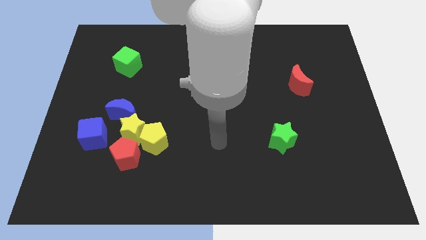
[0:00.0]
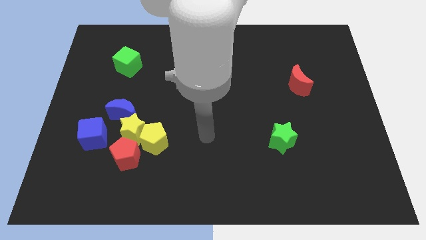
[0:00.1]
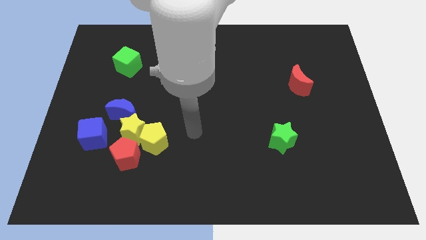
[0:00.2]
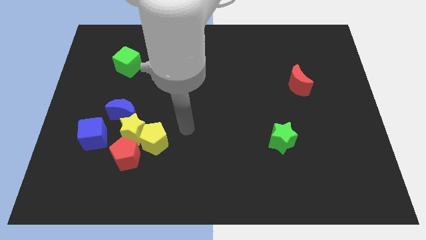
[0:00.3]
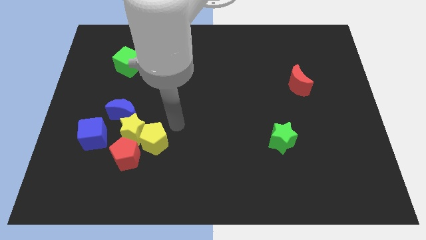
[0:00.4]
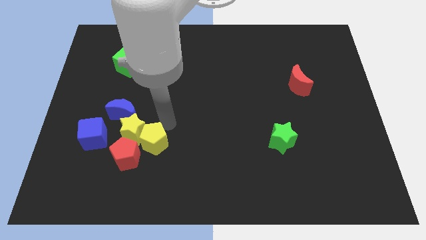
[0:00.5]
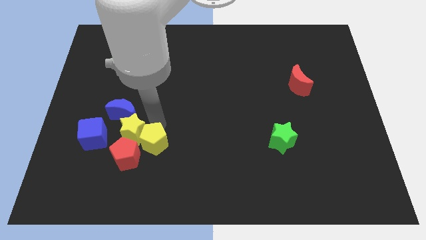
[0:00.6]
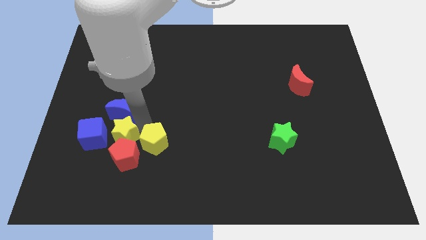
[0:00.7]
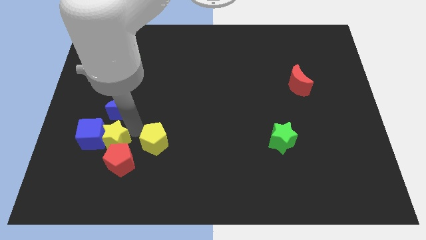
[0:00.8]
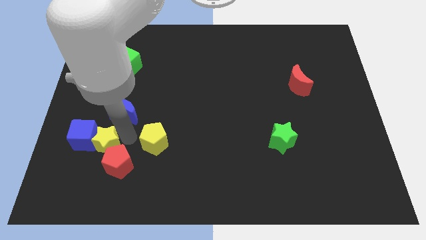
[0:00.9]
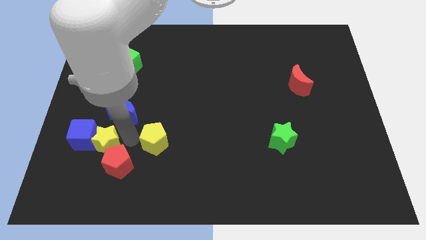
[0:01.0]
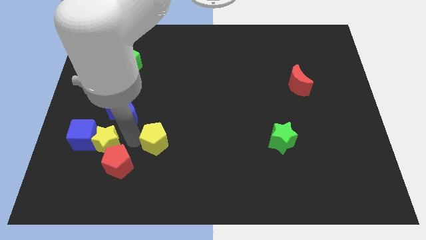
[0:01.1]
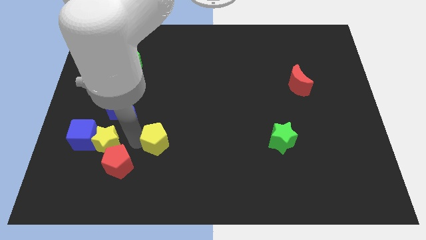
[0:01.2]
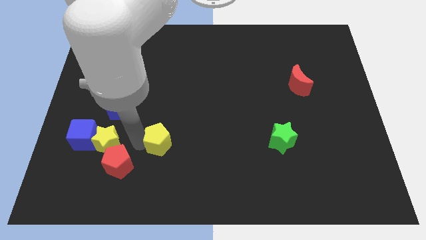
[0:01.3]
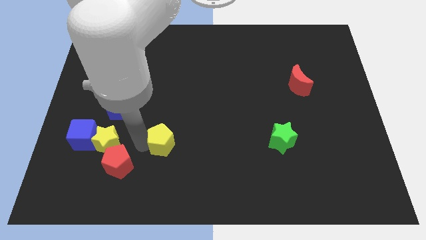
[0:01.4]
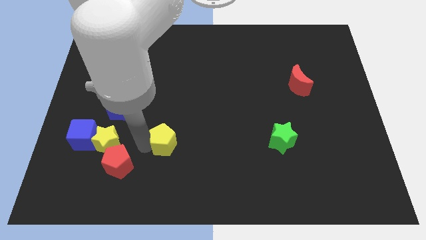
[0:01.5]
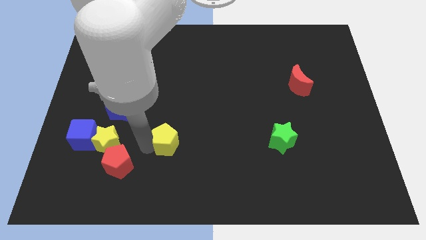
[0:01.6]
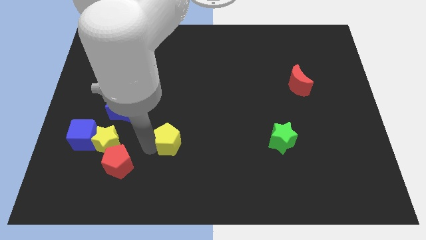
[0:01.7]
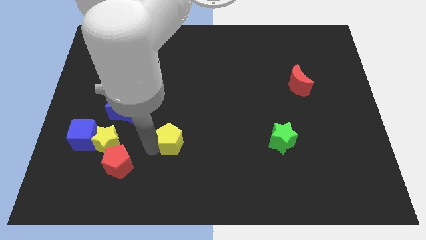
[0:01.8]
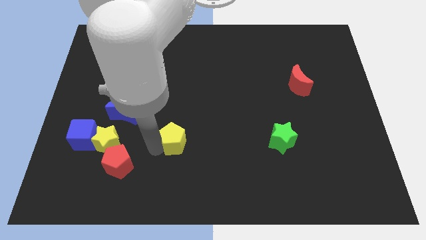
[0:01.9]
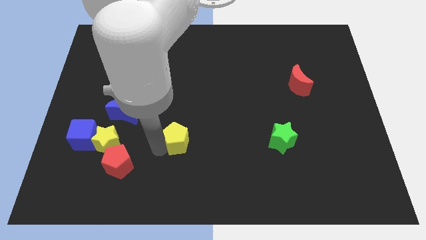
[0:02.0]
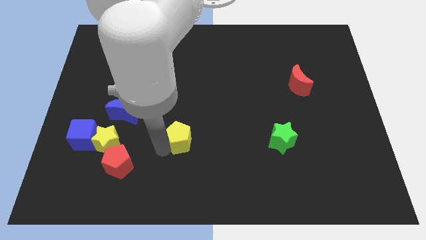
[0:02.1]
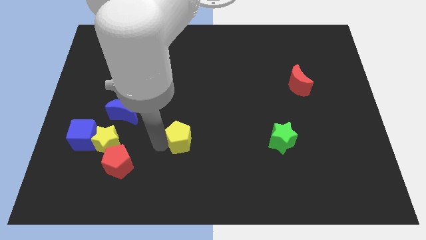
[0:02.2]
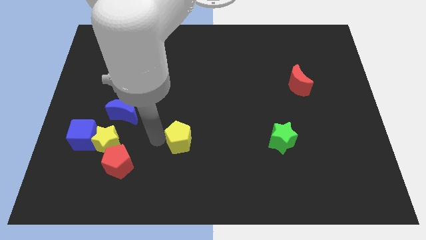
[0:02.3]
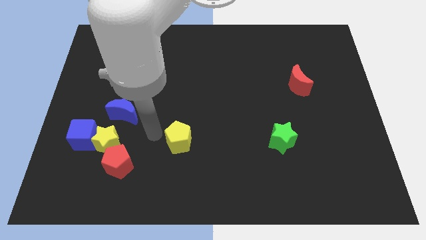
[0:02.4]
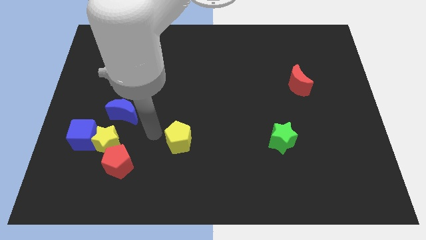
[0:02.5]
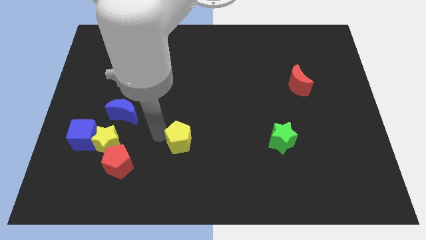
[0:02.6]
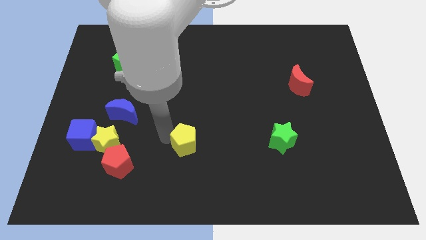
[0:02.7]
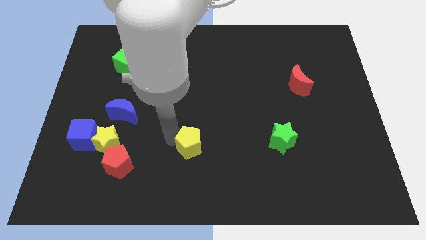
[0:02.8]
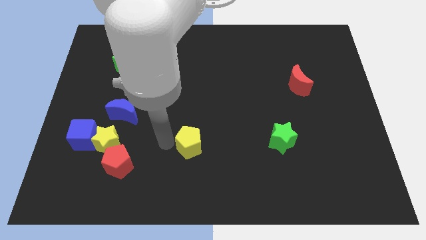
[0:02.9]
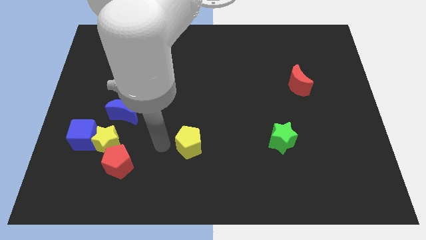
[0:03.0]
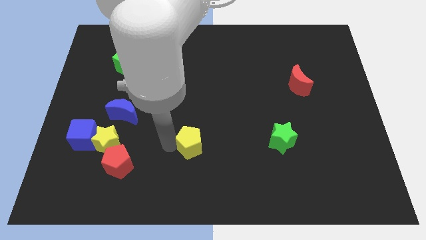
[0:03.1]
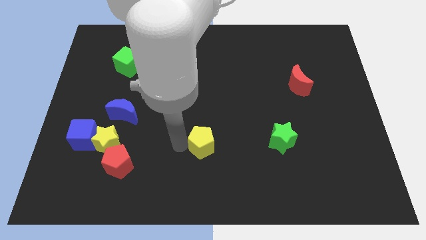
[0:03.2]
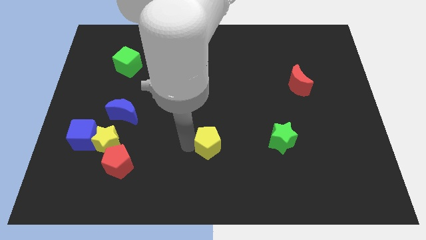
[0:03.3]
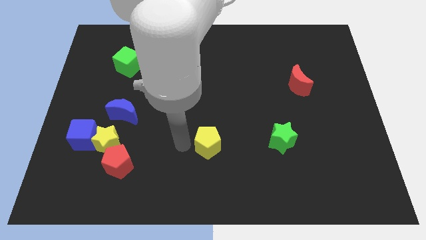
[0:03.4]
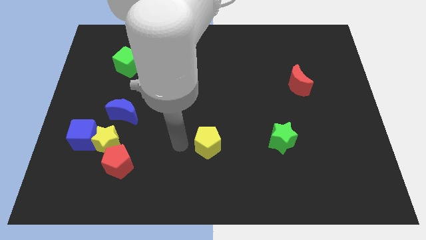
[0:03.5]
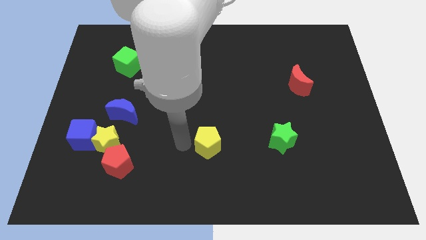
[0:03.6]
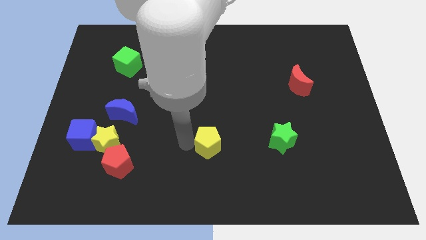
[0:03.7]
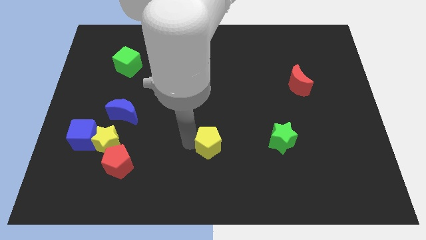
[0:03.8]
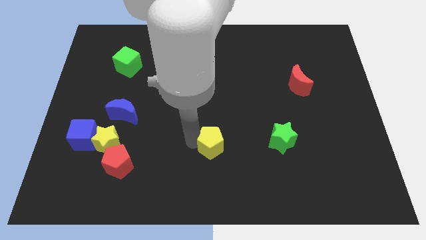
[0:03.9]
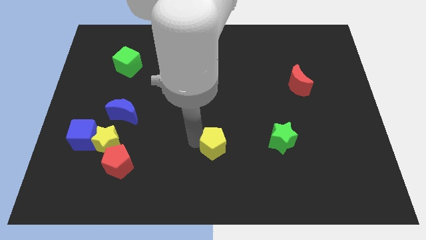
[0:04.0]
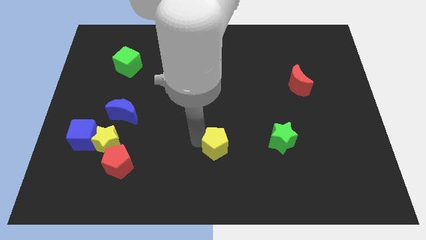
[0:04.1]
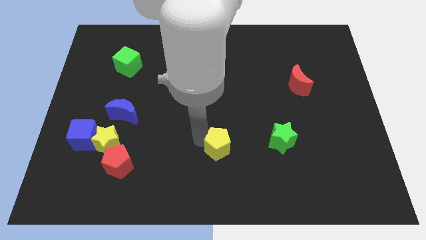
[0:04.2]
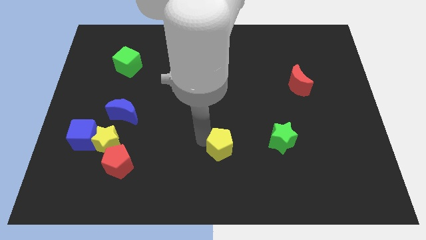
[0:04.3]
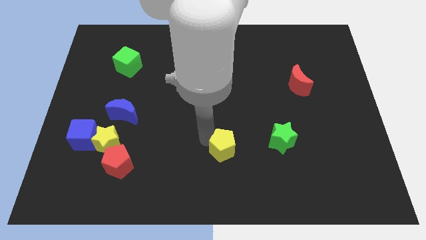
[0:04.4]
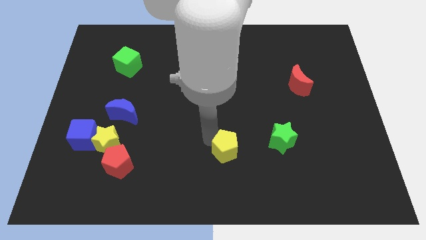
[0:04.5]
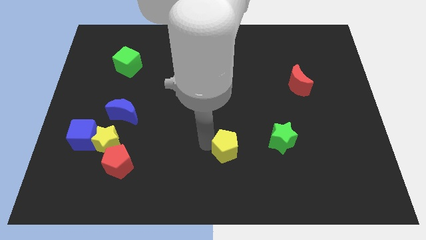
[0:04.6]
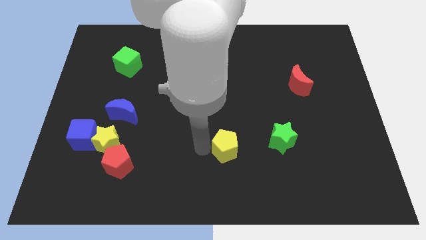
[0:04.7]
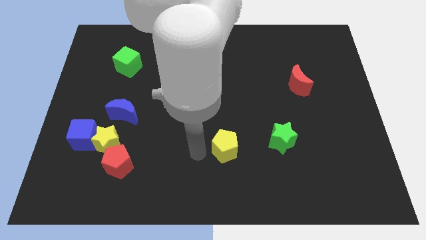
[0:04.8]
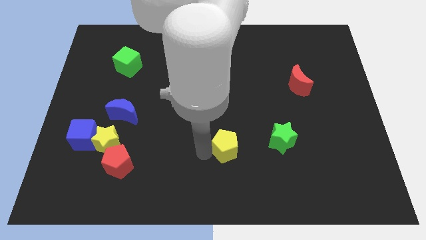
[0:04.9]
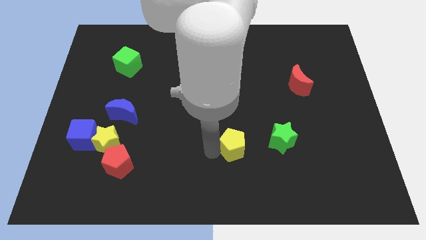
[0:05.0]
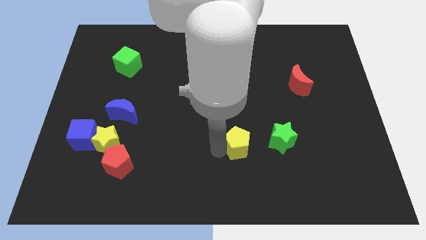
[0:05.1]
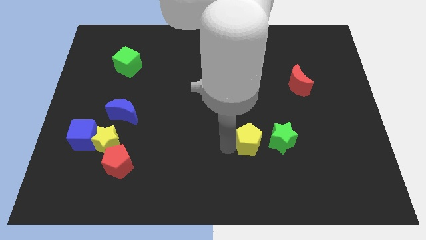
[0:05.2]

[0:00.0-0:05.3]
move the yellow pentagon to the right

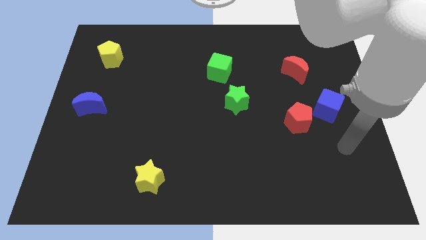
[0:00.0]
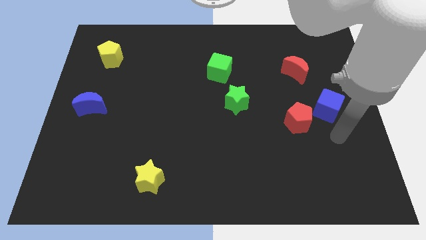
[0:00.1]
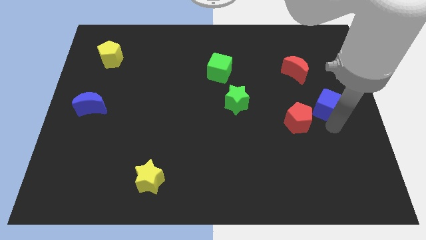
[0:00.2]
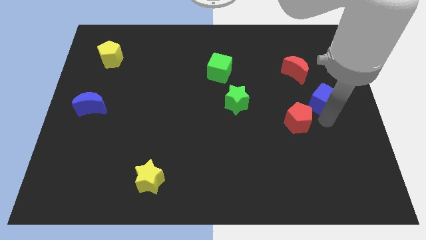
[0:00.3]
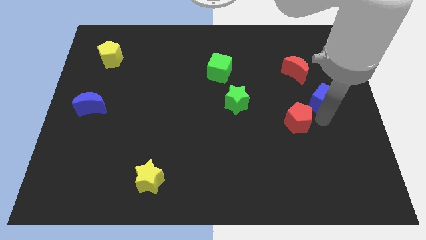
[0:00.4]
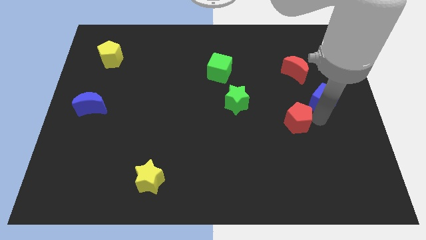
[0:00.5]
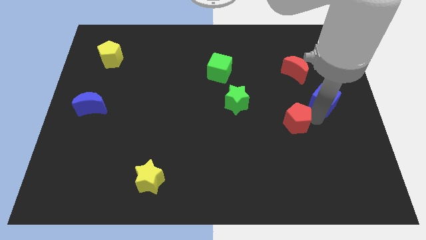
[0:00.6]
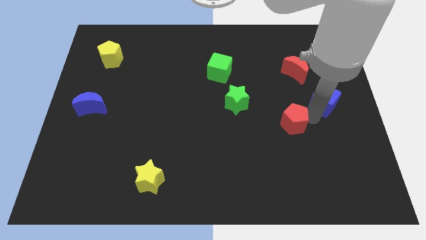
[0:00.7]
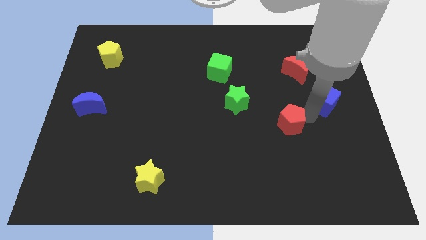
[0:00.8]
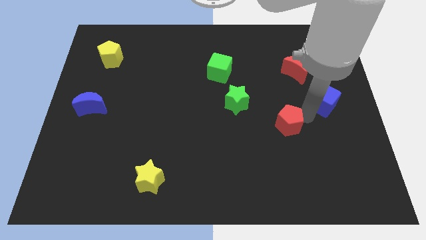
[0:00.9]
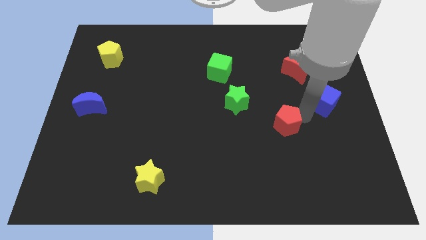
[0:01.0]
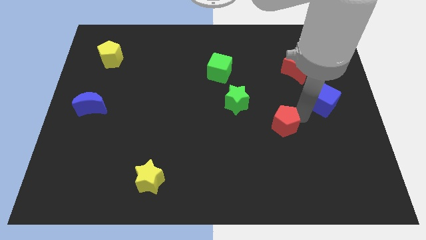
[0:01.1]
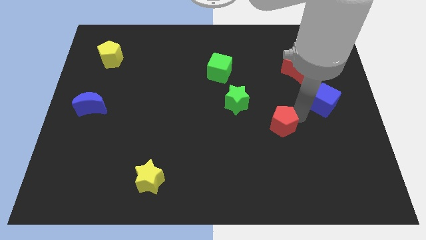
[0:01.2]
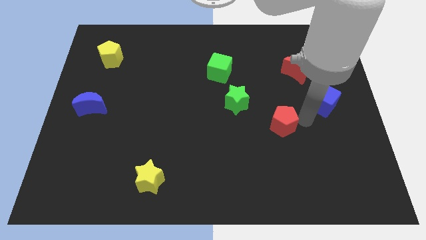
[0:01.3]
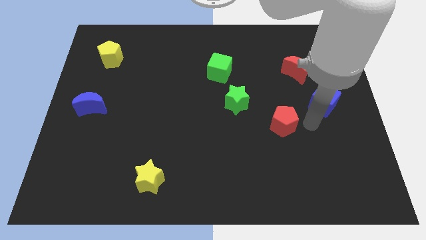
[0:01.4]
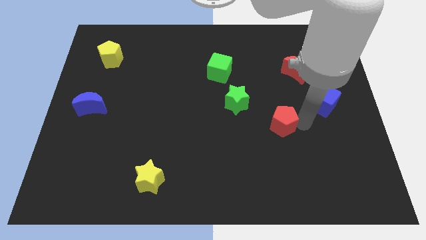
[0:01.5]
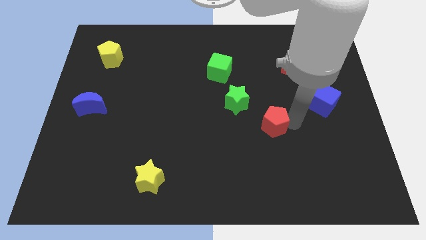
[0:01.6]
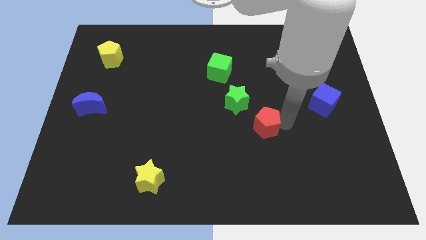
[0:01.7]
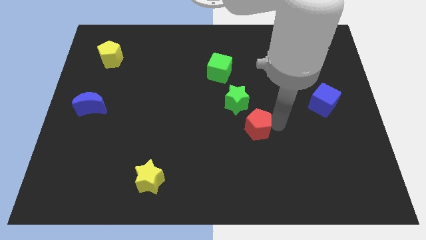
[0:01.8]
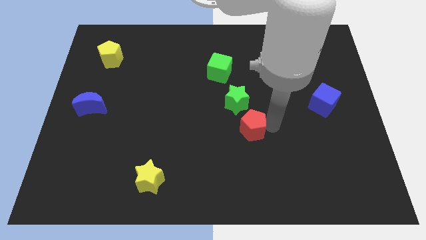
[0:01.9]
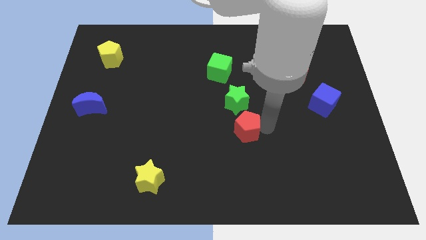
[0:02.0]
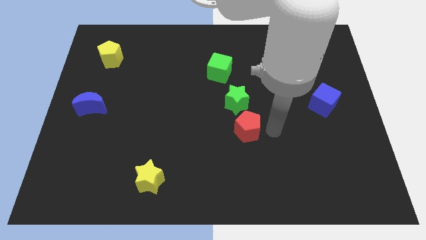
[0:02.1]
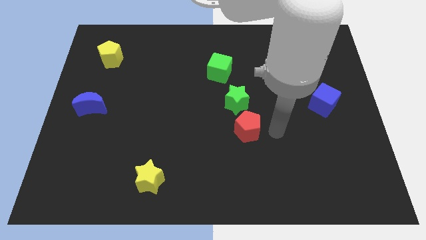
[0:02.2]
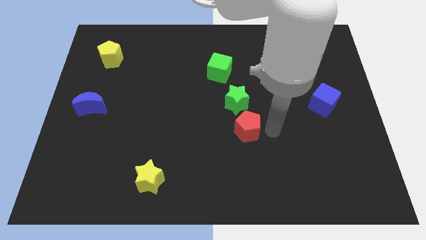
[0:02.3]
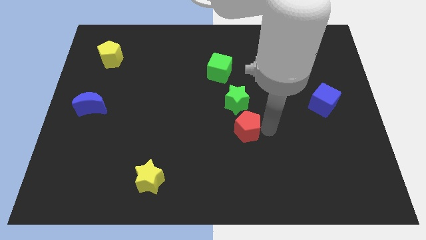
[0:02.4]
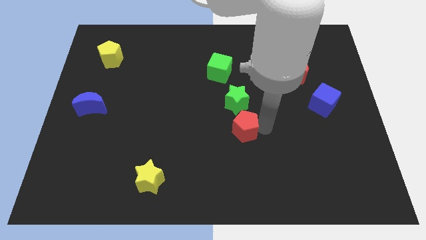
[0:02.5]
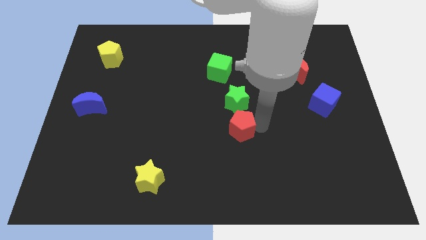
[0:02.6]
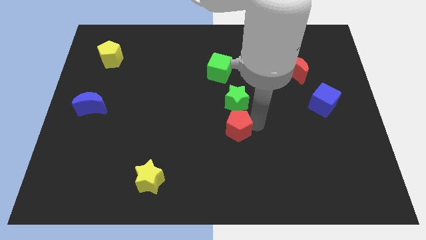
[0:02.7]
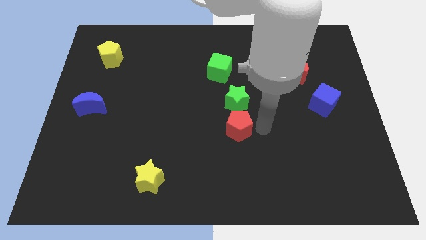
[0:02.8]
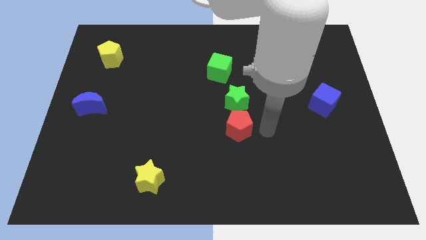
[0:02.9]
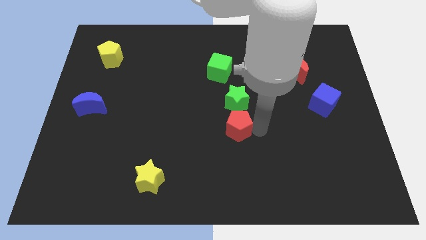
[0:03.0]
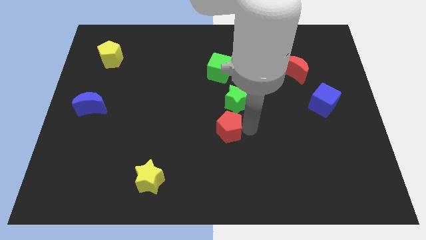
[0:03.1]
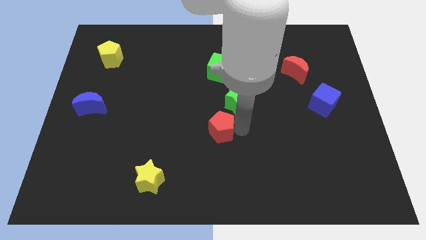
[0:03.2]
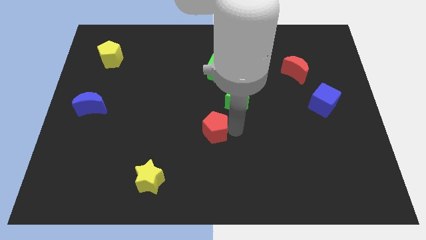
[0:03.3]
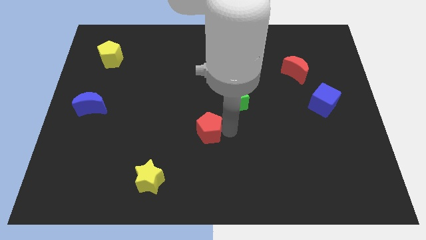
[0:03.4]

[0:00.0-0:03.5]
slide the red pentagon to the left
